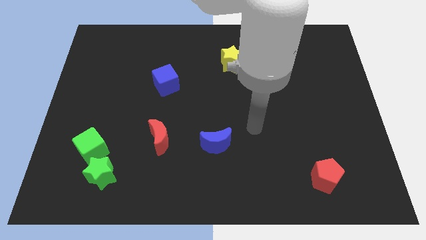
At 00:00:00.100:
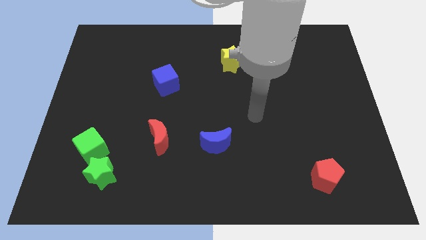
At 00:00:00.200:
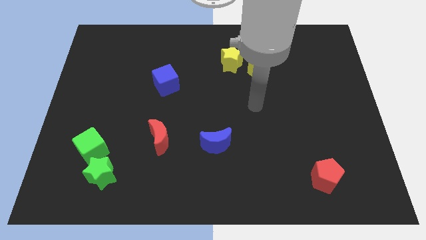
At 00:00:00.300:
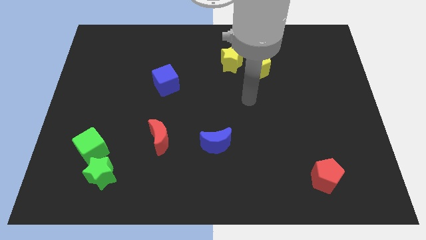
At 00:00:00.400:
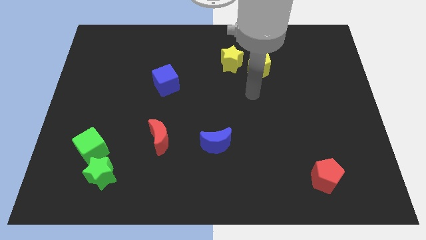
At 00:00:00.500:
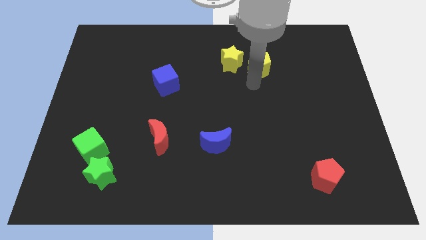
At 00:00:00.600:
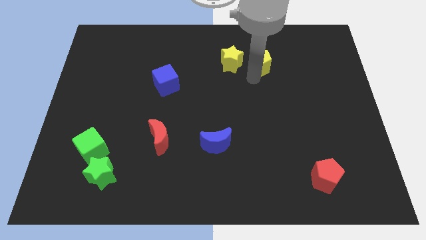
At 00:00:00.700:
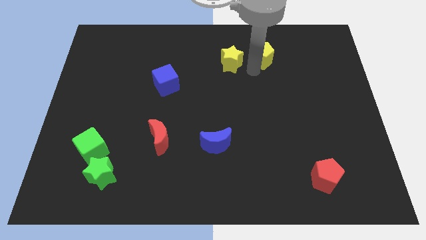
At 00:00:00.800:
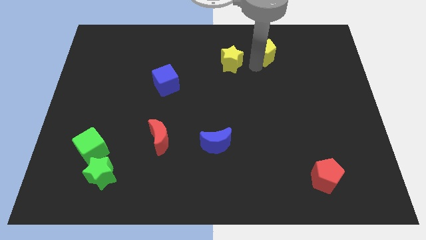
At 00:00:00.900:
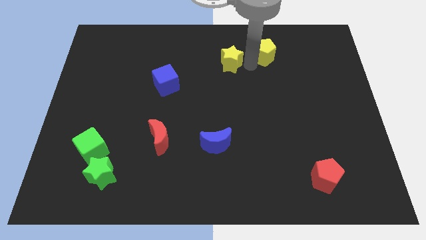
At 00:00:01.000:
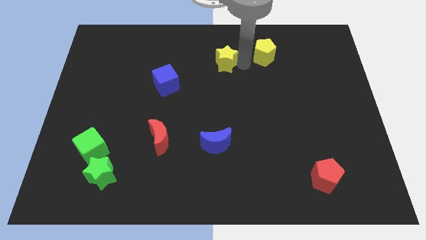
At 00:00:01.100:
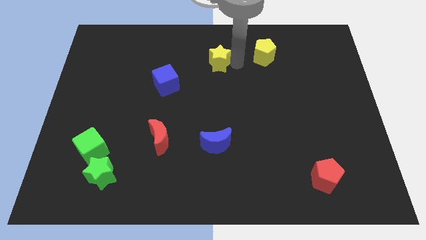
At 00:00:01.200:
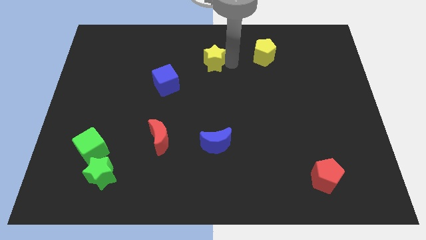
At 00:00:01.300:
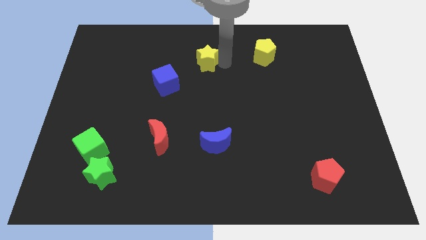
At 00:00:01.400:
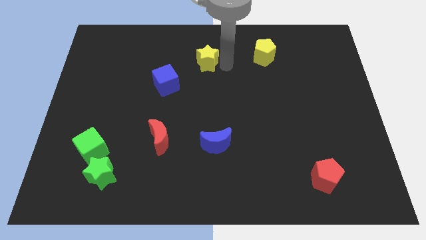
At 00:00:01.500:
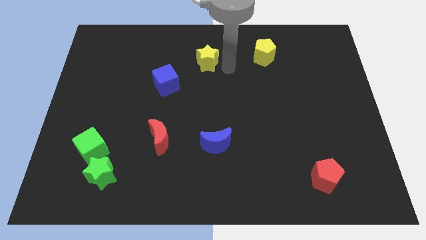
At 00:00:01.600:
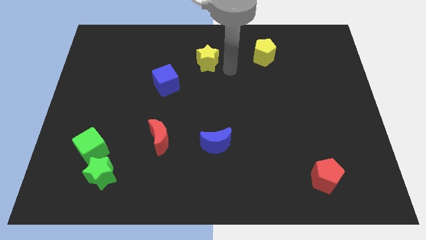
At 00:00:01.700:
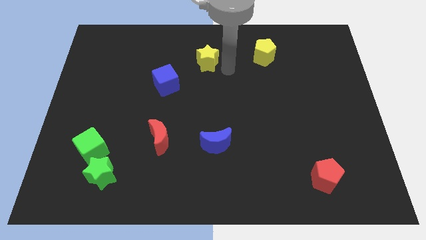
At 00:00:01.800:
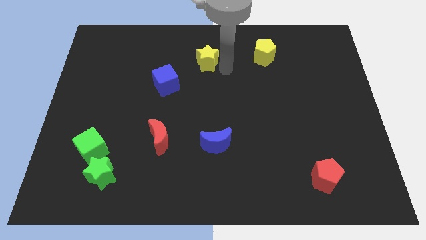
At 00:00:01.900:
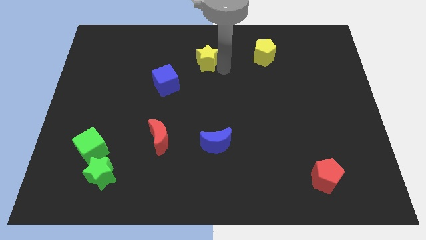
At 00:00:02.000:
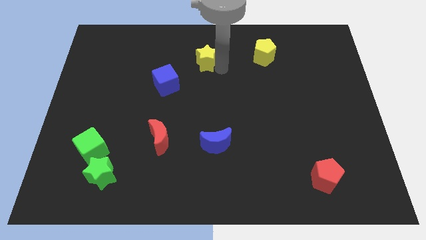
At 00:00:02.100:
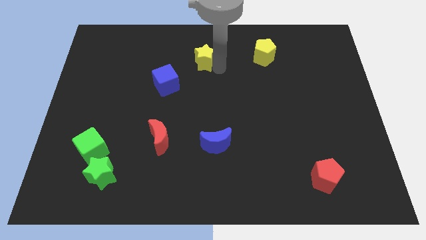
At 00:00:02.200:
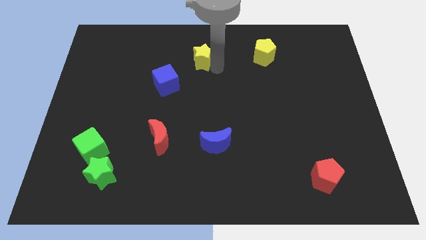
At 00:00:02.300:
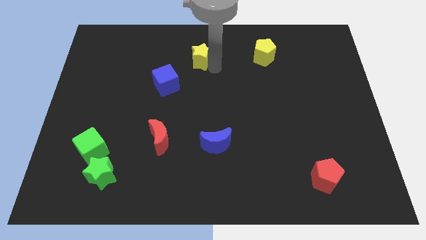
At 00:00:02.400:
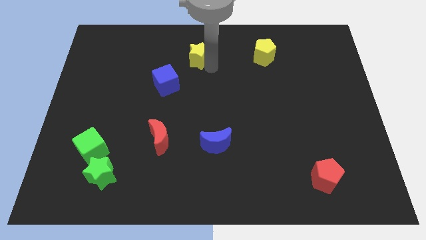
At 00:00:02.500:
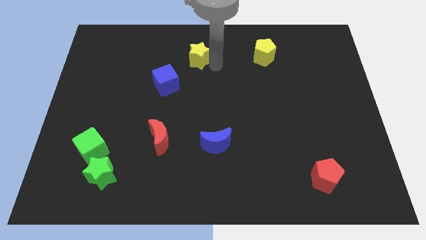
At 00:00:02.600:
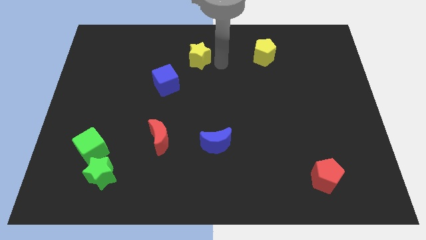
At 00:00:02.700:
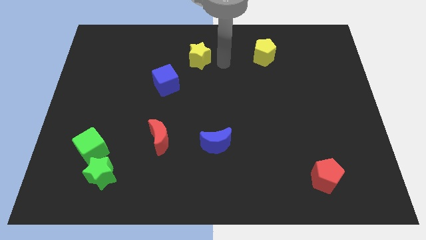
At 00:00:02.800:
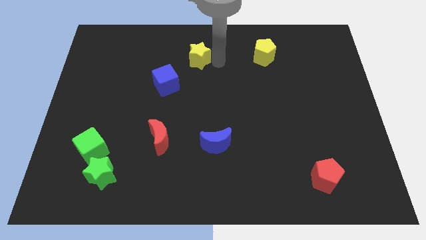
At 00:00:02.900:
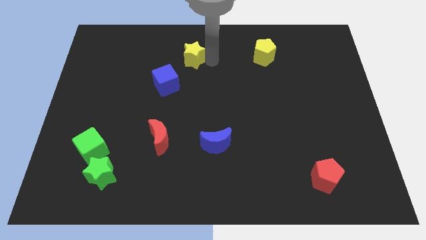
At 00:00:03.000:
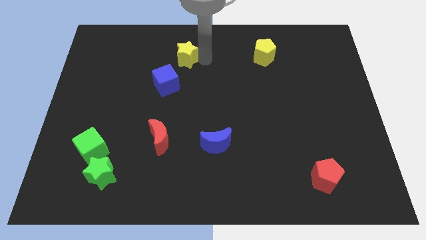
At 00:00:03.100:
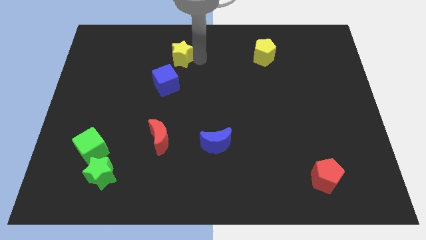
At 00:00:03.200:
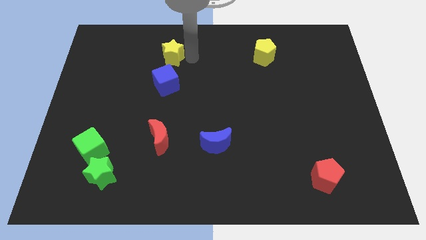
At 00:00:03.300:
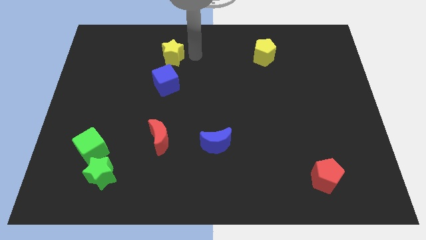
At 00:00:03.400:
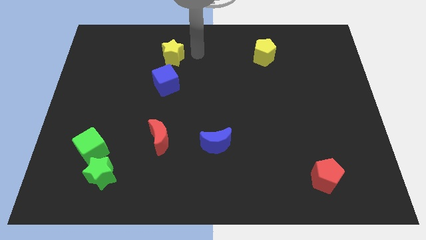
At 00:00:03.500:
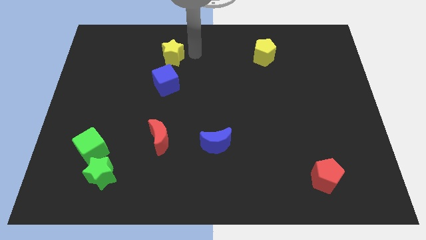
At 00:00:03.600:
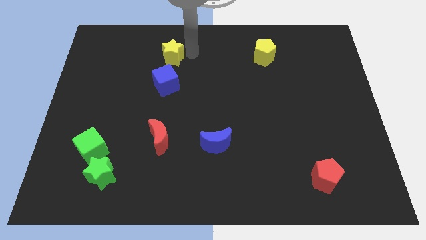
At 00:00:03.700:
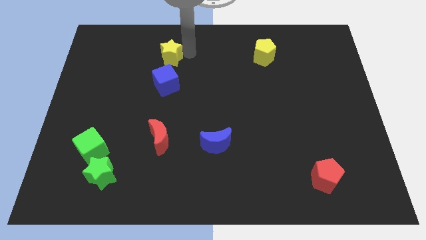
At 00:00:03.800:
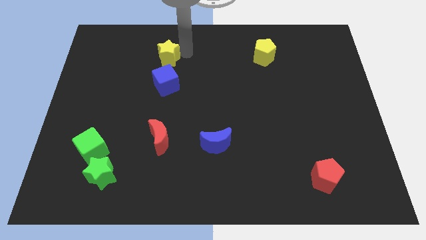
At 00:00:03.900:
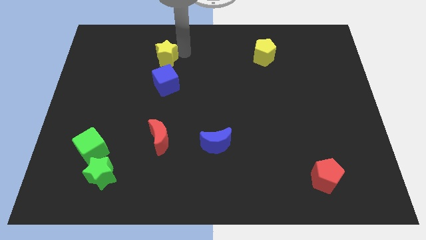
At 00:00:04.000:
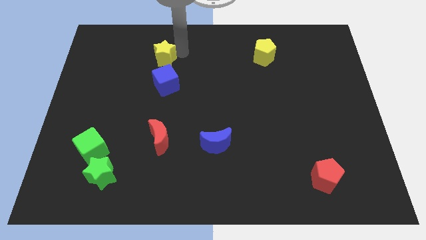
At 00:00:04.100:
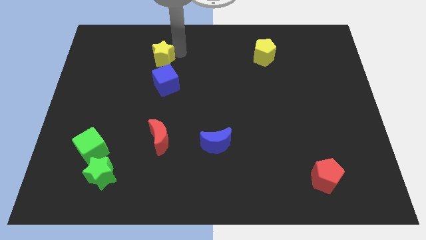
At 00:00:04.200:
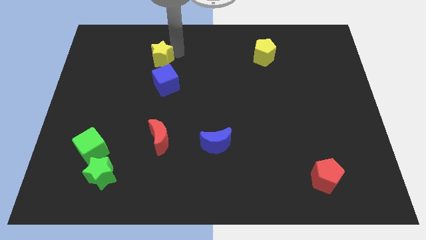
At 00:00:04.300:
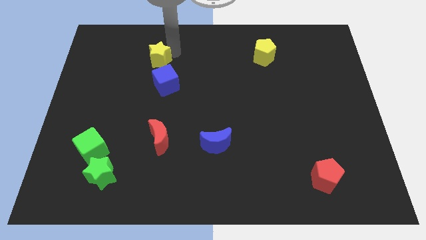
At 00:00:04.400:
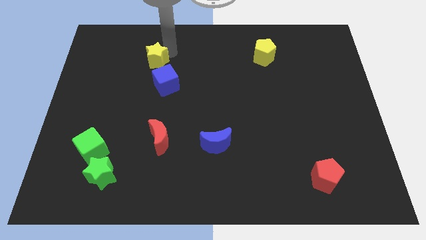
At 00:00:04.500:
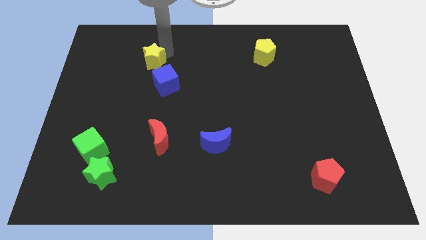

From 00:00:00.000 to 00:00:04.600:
move the yellow star left

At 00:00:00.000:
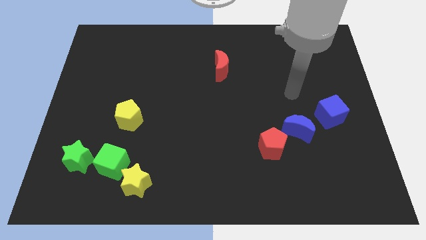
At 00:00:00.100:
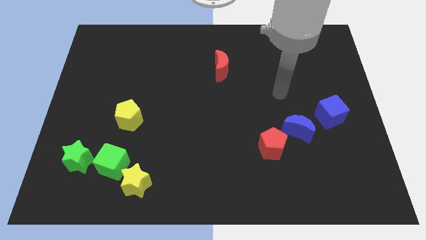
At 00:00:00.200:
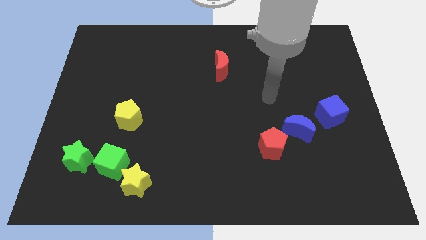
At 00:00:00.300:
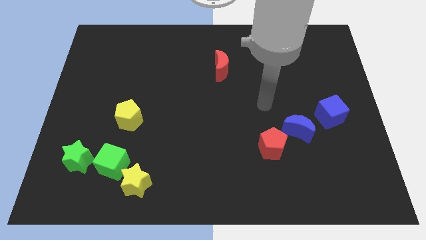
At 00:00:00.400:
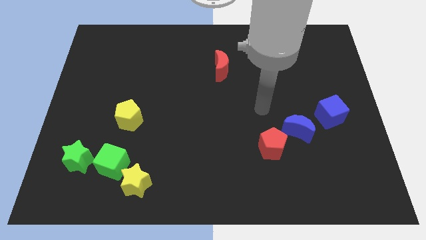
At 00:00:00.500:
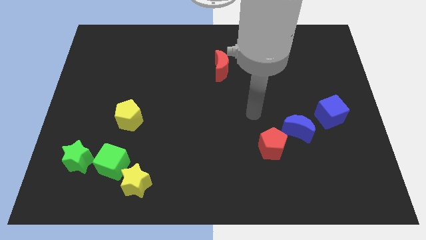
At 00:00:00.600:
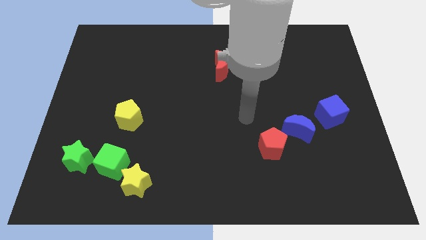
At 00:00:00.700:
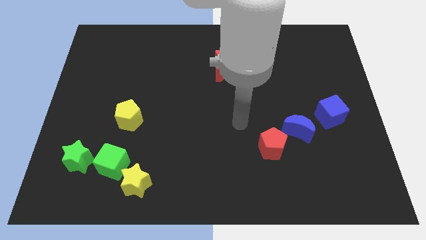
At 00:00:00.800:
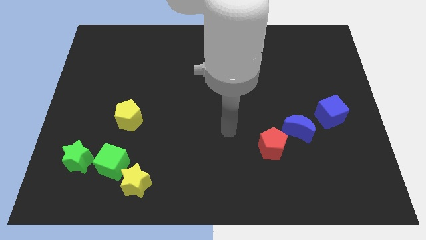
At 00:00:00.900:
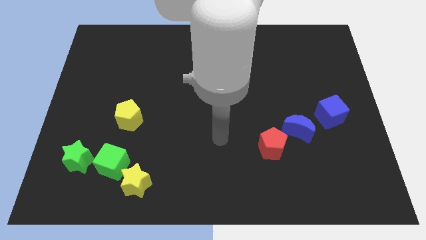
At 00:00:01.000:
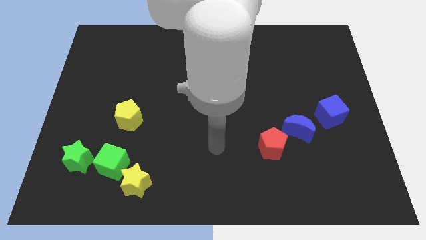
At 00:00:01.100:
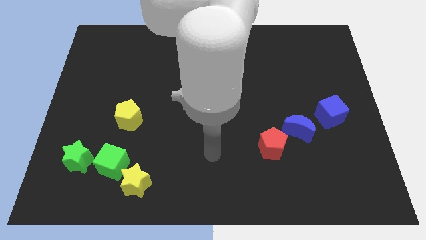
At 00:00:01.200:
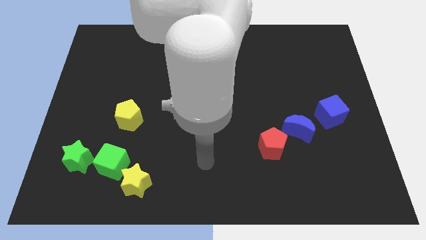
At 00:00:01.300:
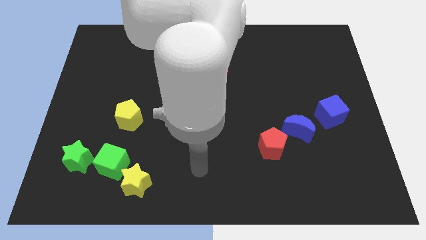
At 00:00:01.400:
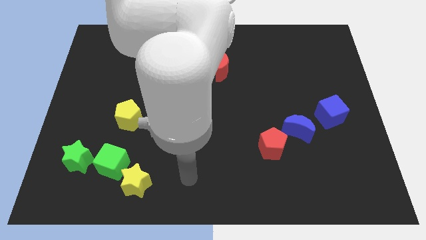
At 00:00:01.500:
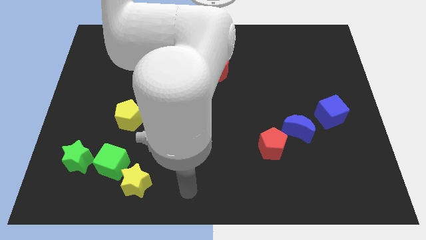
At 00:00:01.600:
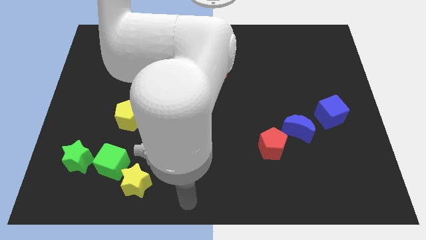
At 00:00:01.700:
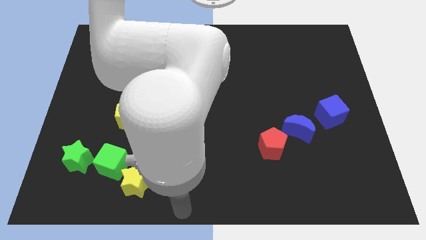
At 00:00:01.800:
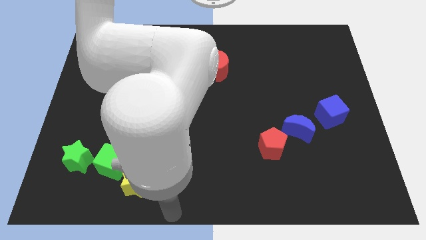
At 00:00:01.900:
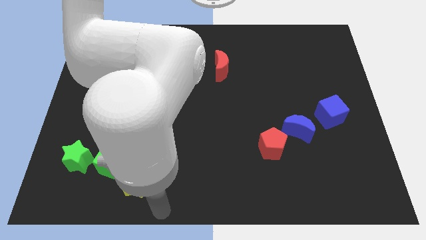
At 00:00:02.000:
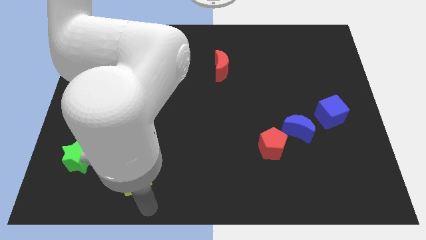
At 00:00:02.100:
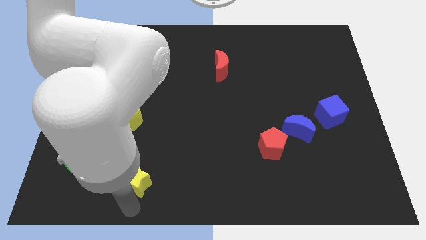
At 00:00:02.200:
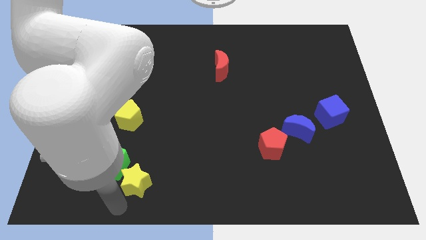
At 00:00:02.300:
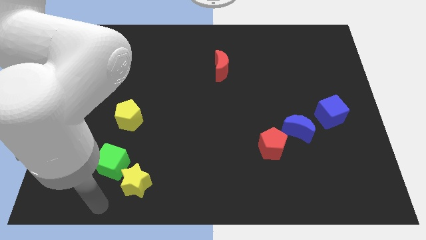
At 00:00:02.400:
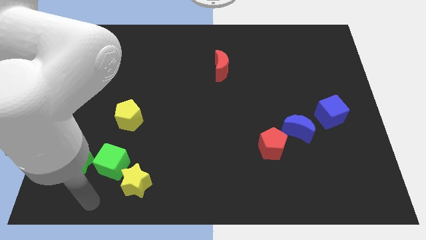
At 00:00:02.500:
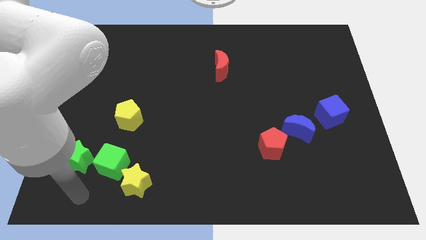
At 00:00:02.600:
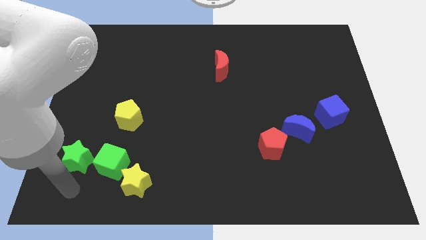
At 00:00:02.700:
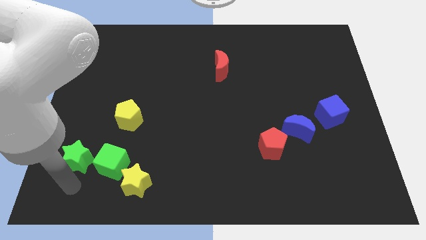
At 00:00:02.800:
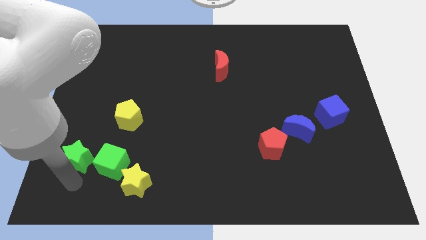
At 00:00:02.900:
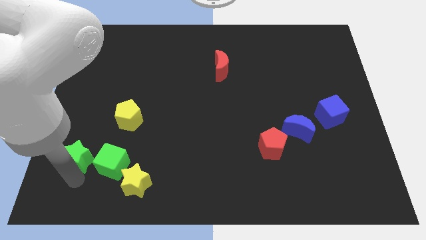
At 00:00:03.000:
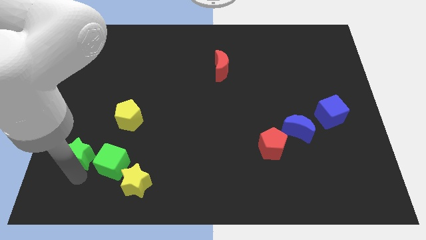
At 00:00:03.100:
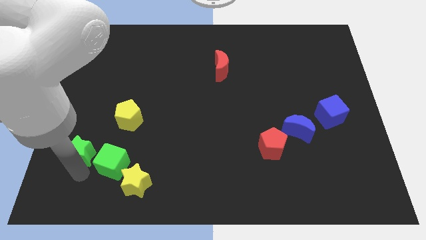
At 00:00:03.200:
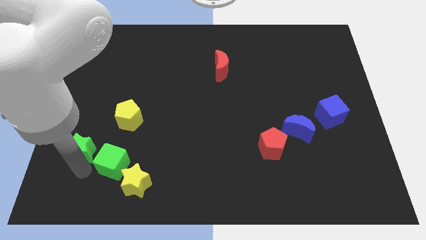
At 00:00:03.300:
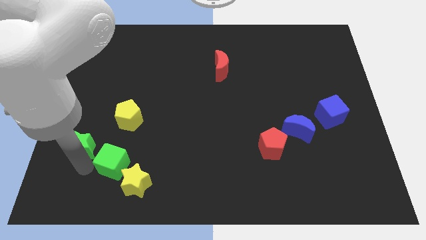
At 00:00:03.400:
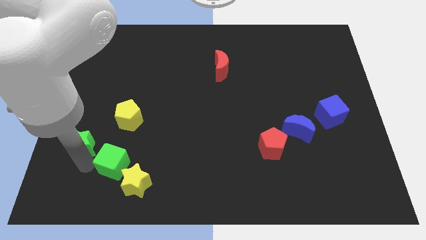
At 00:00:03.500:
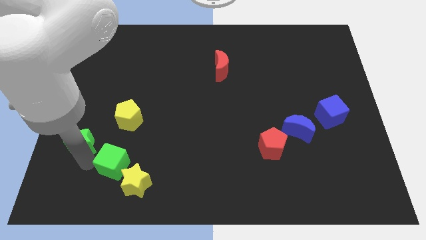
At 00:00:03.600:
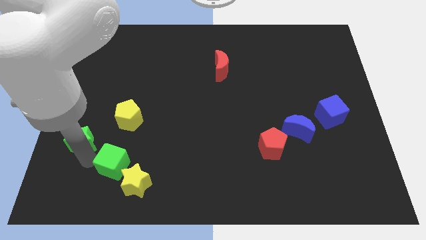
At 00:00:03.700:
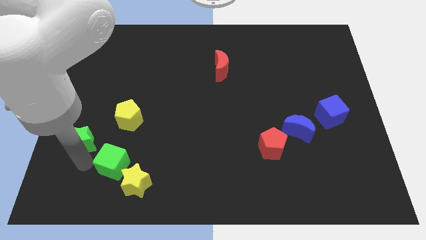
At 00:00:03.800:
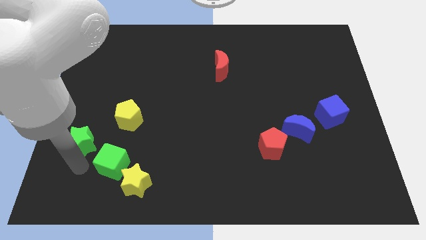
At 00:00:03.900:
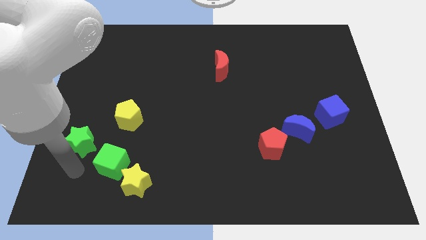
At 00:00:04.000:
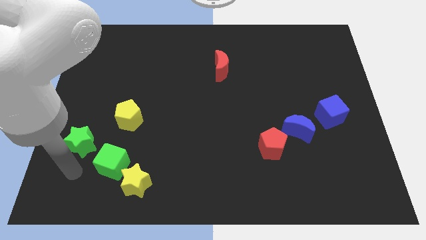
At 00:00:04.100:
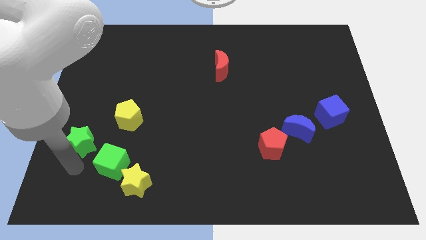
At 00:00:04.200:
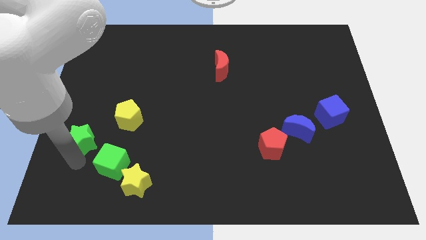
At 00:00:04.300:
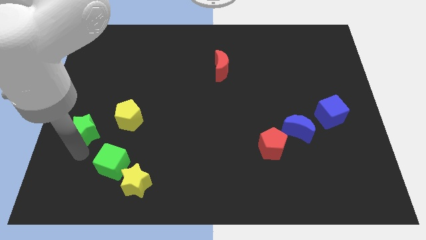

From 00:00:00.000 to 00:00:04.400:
slide the green star slightly upwards
